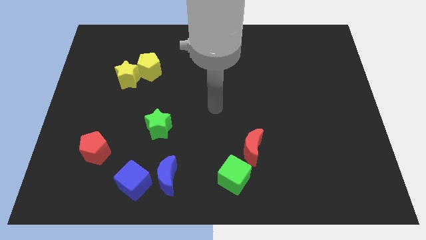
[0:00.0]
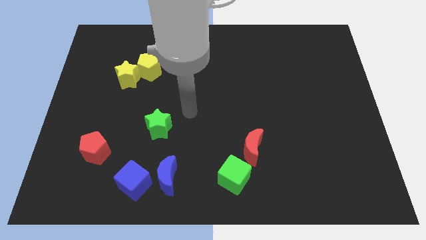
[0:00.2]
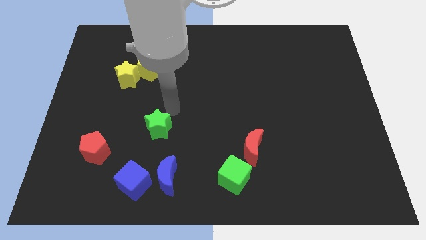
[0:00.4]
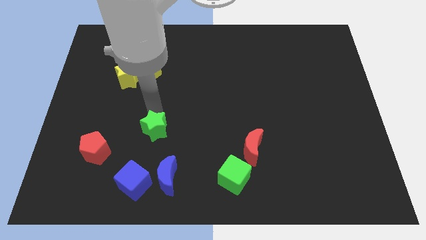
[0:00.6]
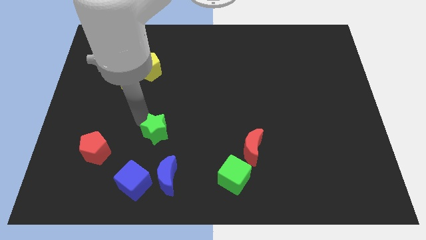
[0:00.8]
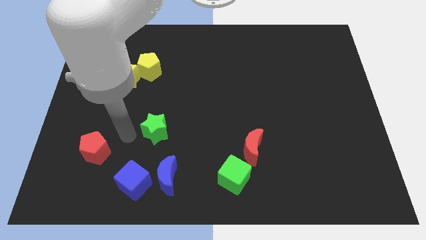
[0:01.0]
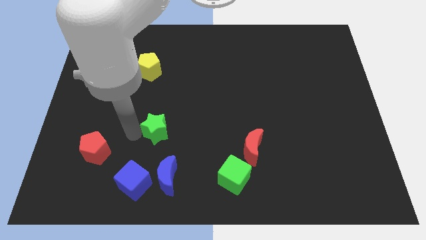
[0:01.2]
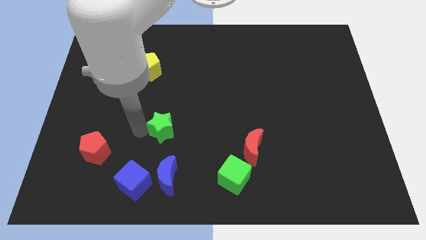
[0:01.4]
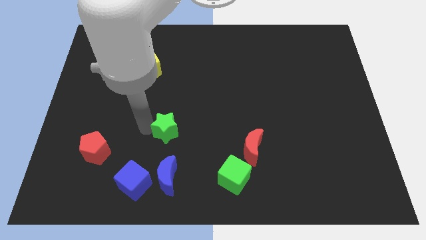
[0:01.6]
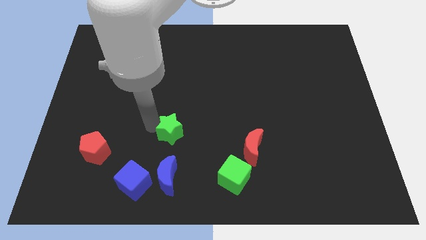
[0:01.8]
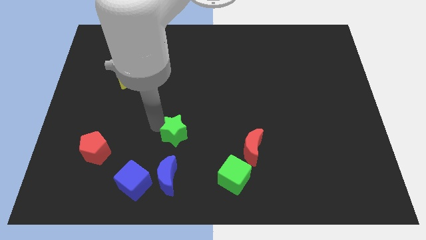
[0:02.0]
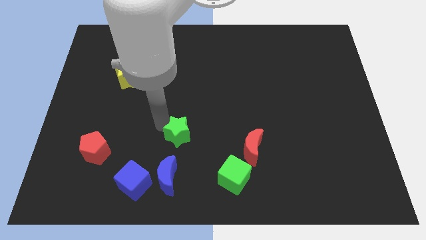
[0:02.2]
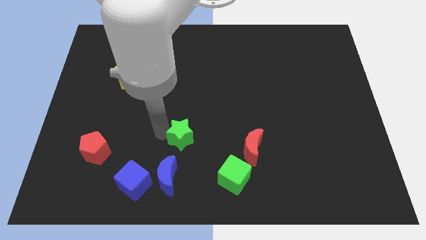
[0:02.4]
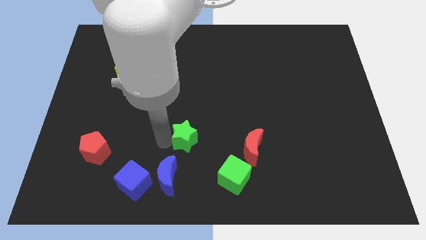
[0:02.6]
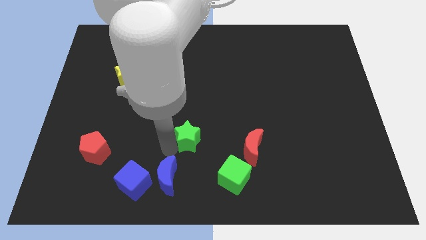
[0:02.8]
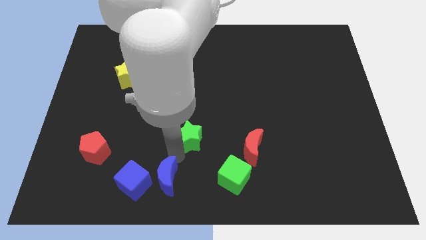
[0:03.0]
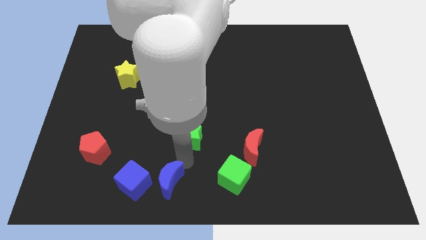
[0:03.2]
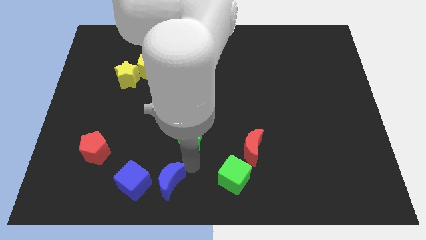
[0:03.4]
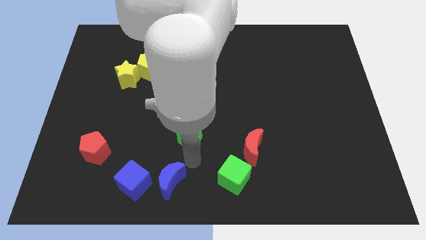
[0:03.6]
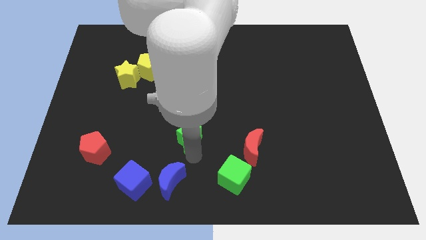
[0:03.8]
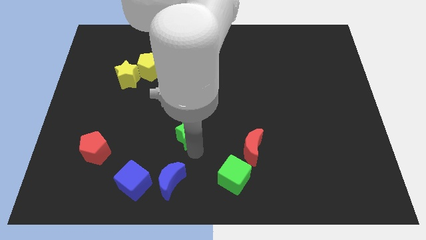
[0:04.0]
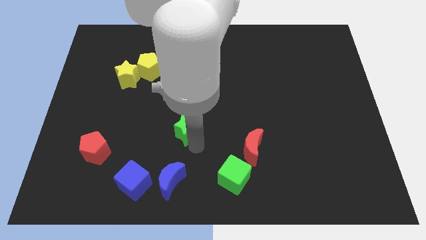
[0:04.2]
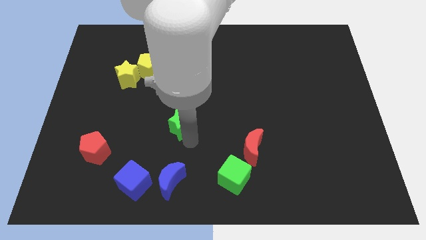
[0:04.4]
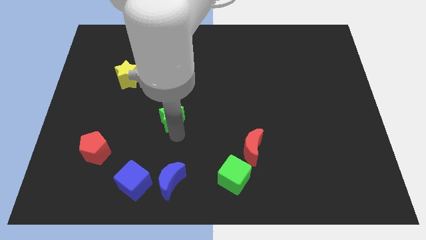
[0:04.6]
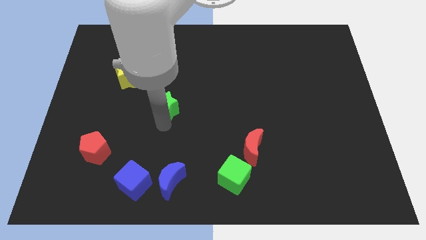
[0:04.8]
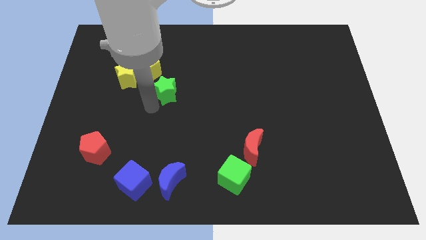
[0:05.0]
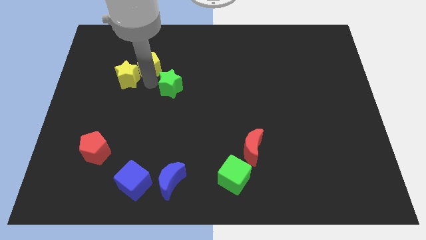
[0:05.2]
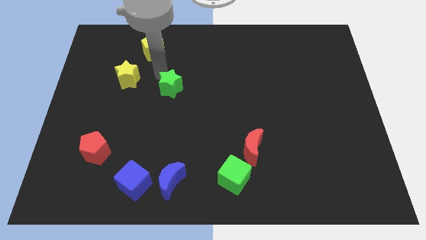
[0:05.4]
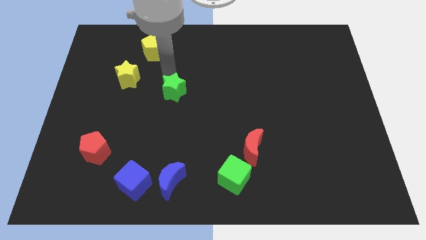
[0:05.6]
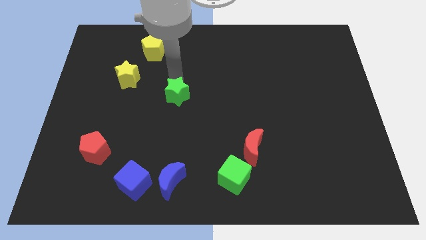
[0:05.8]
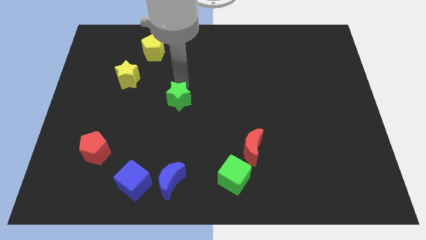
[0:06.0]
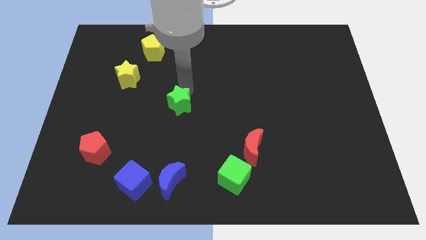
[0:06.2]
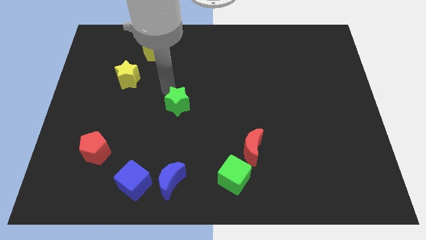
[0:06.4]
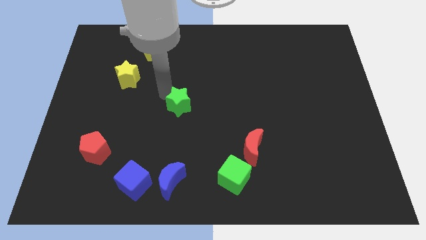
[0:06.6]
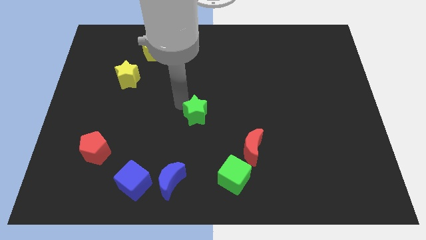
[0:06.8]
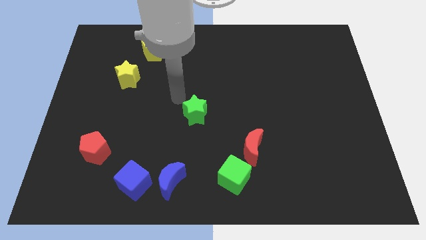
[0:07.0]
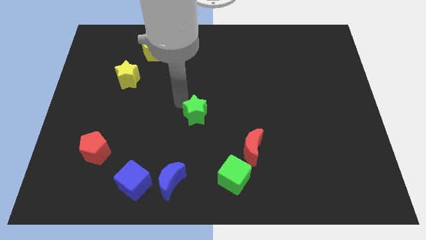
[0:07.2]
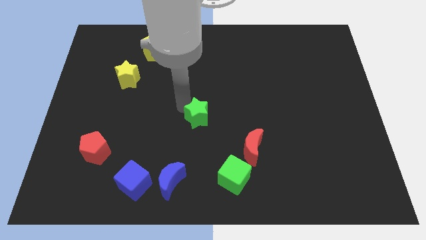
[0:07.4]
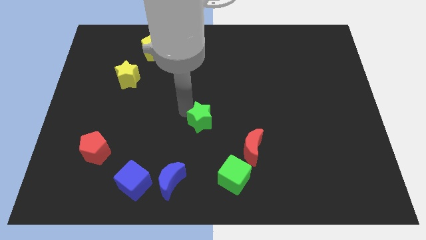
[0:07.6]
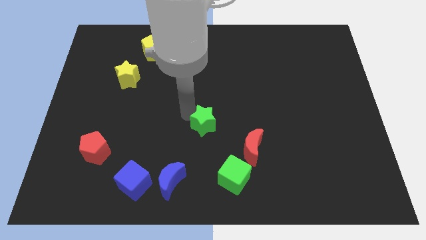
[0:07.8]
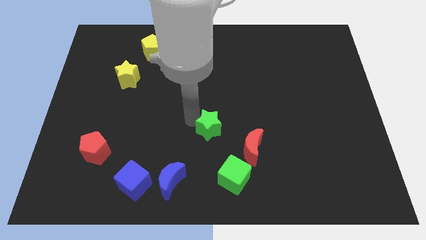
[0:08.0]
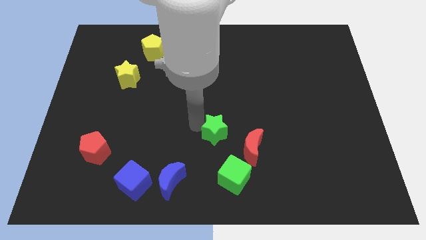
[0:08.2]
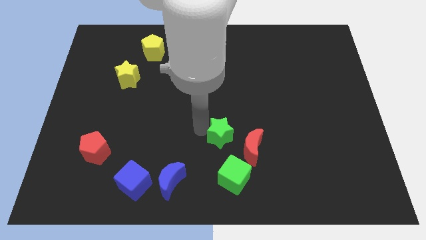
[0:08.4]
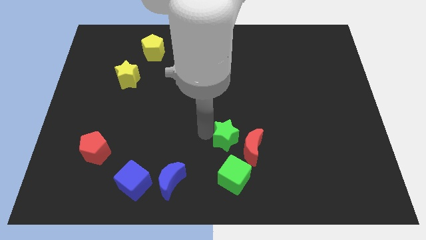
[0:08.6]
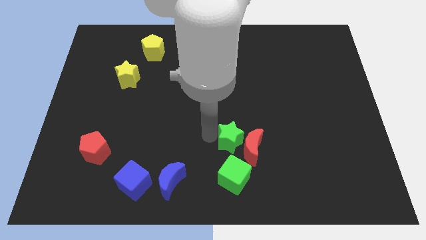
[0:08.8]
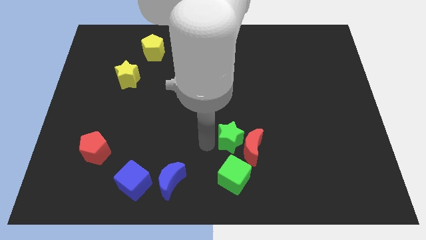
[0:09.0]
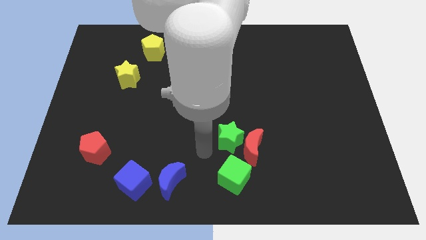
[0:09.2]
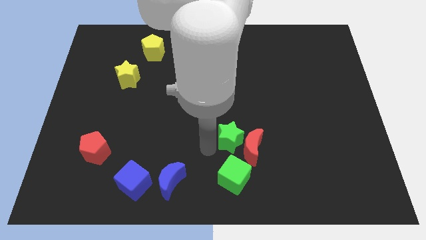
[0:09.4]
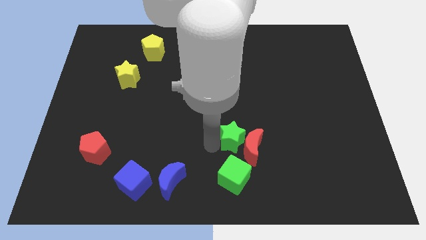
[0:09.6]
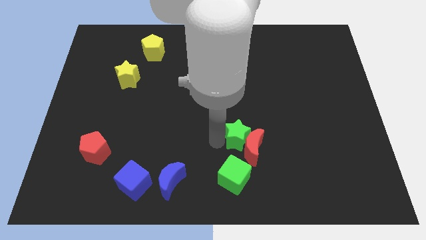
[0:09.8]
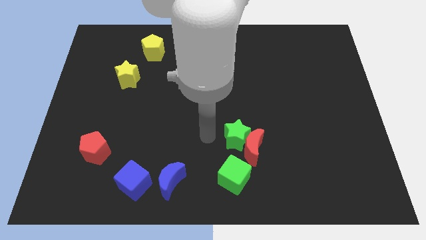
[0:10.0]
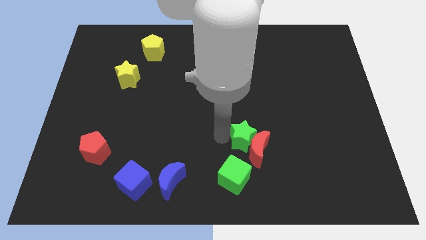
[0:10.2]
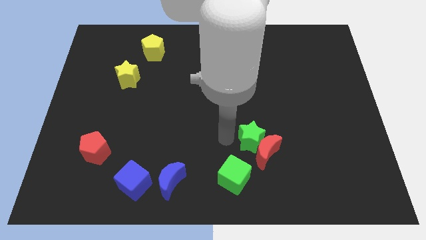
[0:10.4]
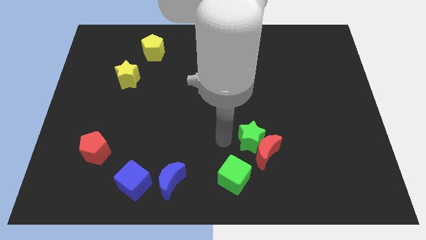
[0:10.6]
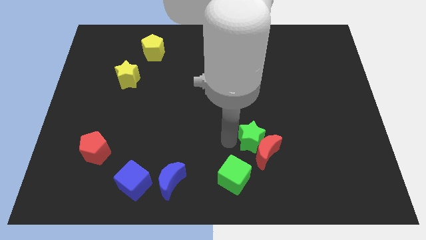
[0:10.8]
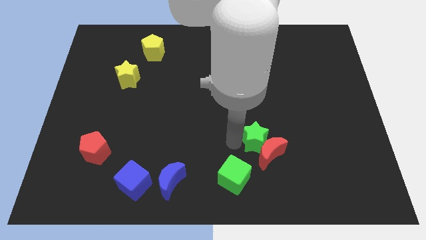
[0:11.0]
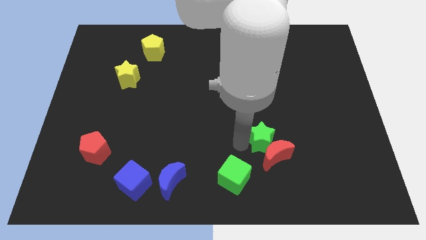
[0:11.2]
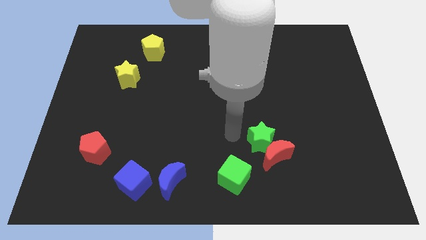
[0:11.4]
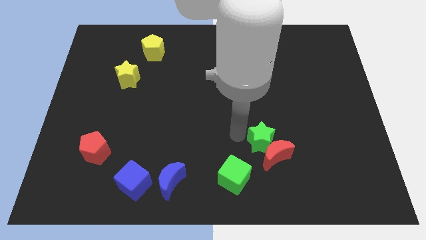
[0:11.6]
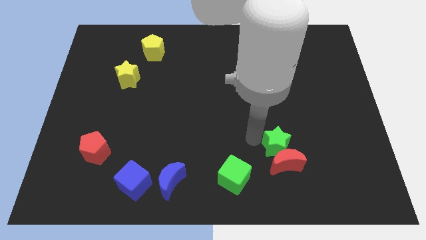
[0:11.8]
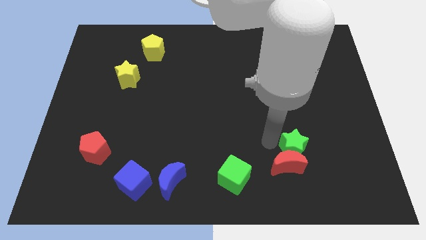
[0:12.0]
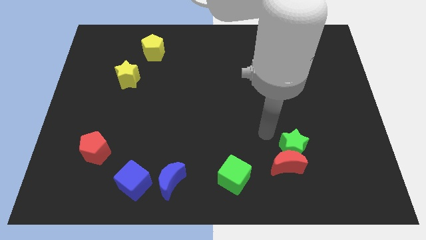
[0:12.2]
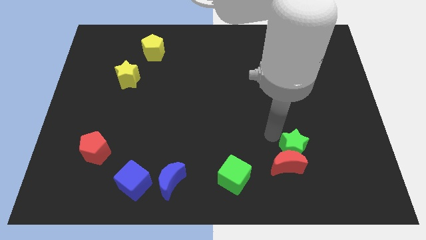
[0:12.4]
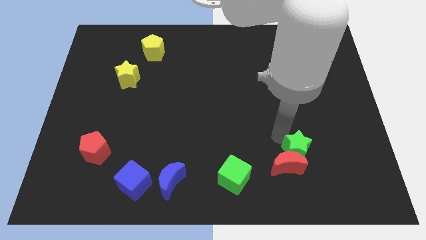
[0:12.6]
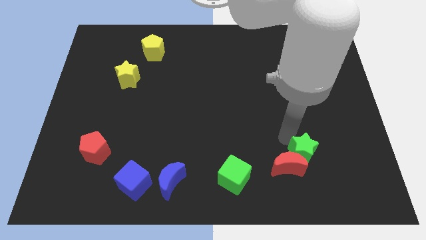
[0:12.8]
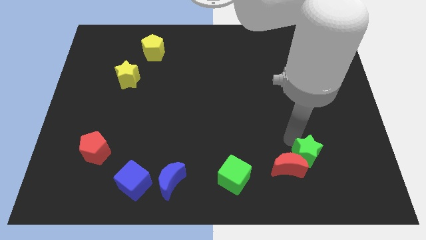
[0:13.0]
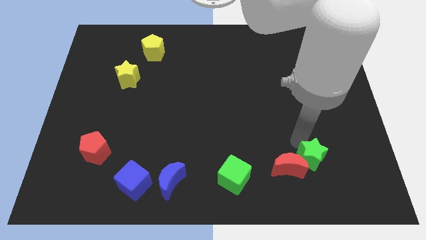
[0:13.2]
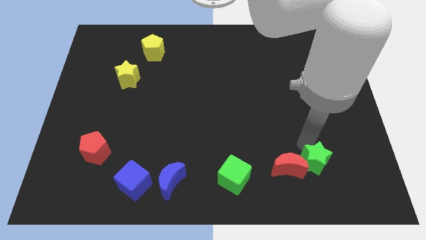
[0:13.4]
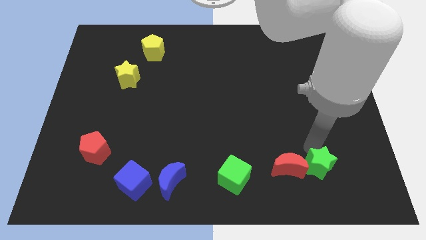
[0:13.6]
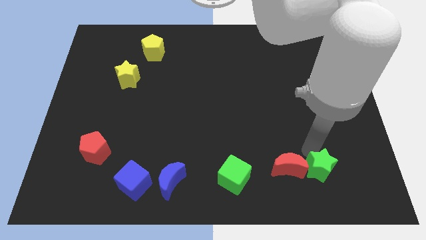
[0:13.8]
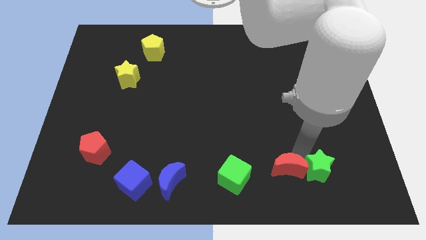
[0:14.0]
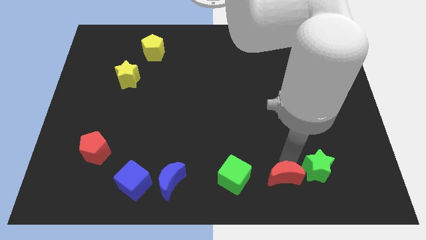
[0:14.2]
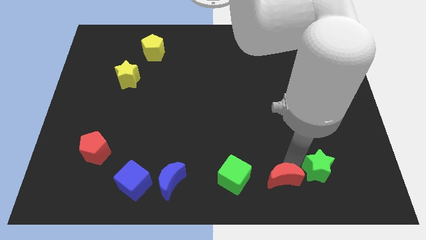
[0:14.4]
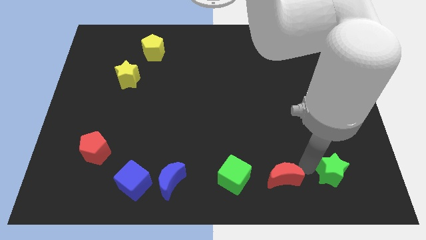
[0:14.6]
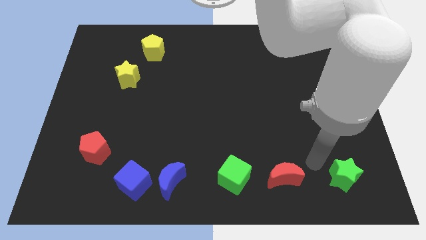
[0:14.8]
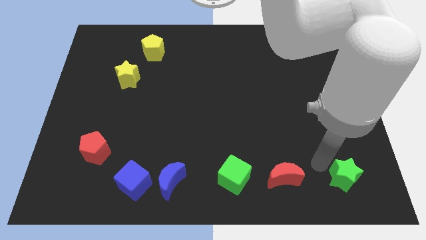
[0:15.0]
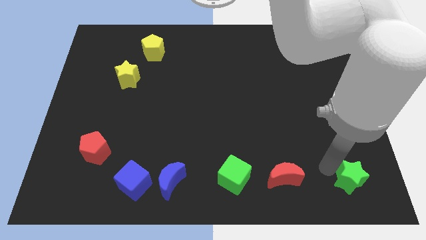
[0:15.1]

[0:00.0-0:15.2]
slide the green star to the lower right corner
